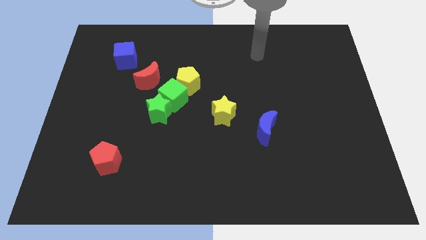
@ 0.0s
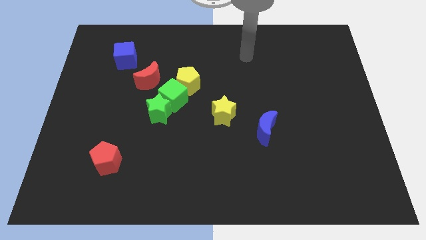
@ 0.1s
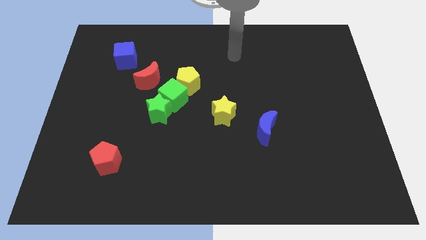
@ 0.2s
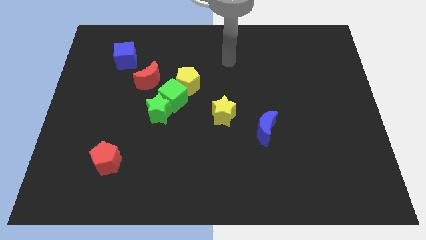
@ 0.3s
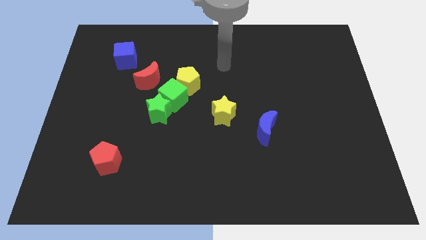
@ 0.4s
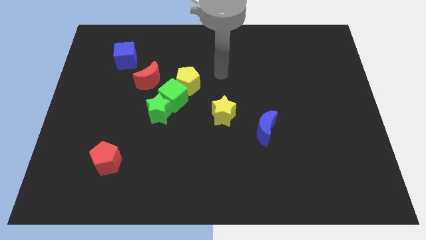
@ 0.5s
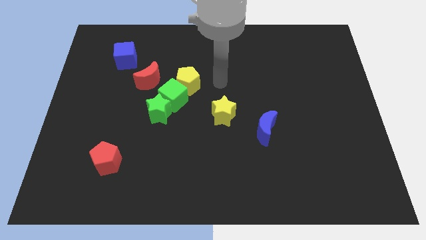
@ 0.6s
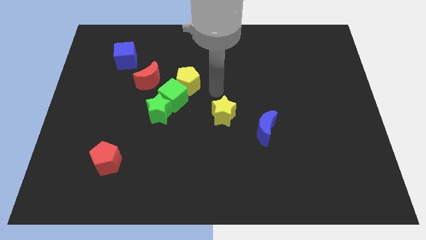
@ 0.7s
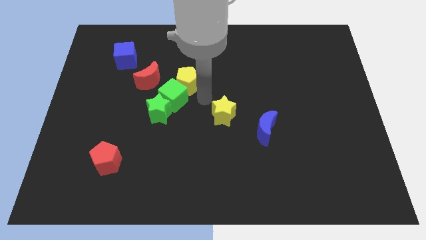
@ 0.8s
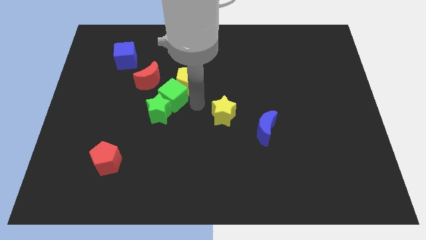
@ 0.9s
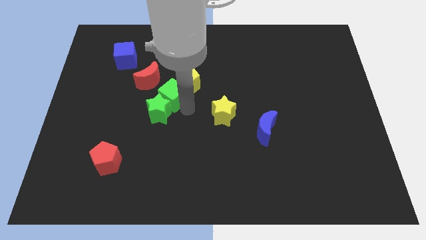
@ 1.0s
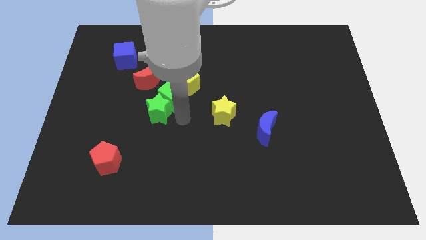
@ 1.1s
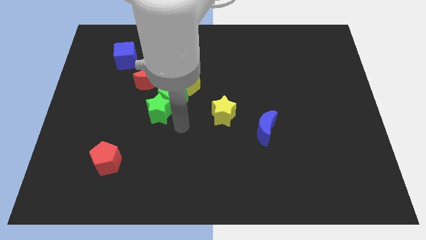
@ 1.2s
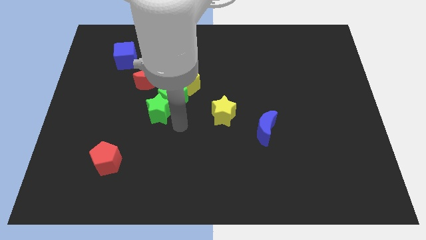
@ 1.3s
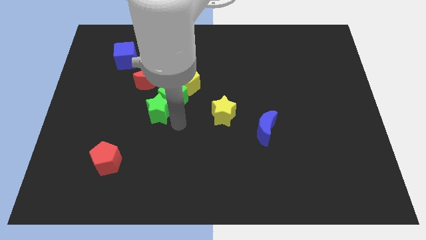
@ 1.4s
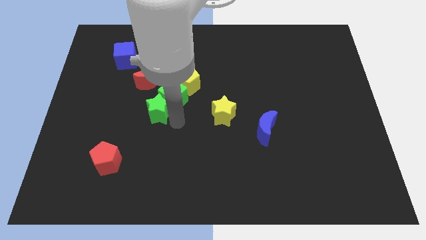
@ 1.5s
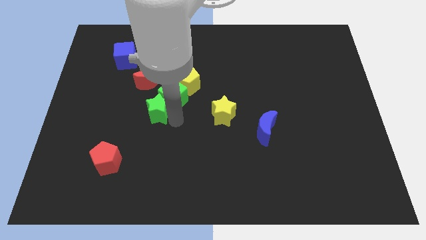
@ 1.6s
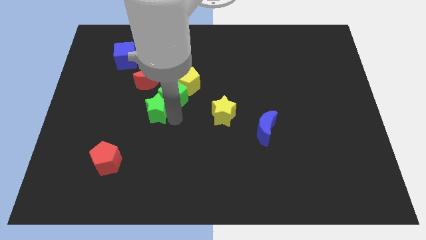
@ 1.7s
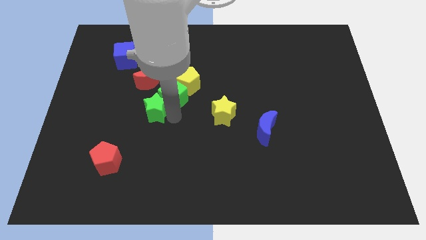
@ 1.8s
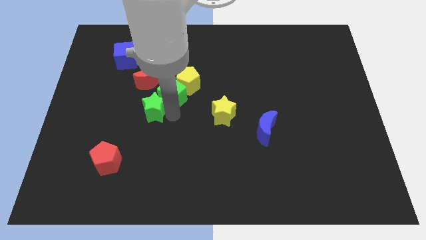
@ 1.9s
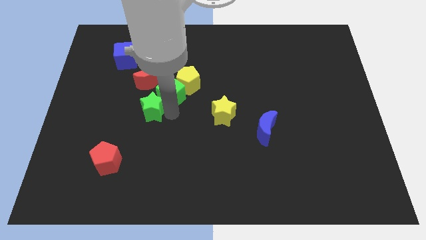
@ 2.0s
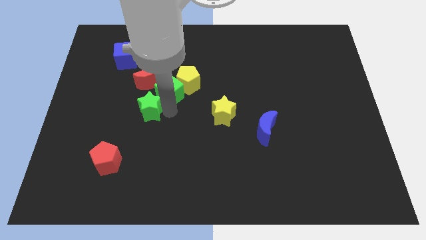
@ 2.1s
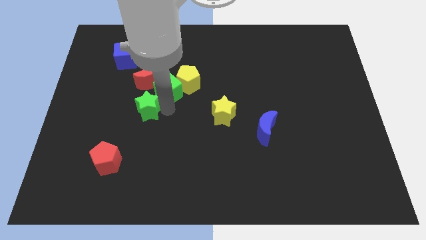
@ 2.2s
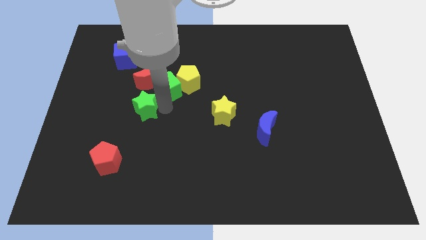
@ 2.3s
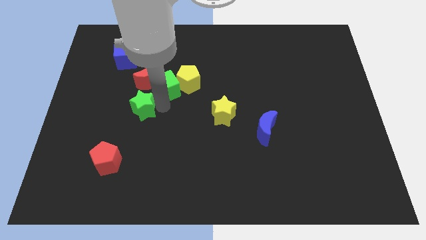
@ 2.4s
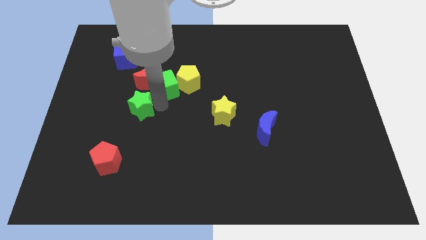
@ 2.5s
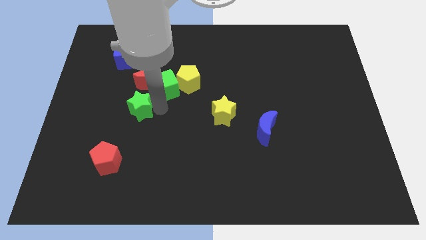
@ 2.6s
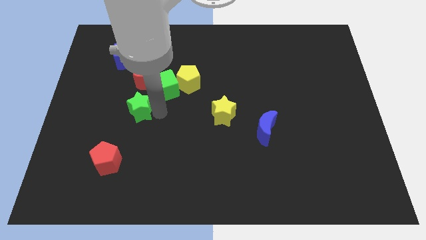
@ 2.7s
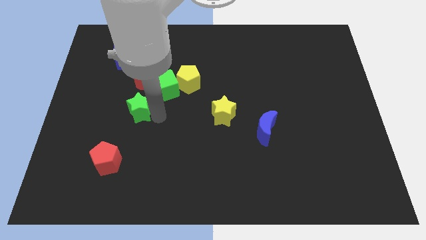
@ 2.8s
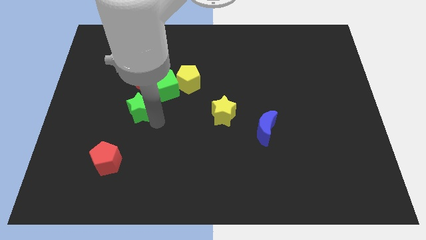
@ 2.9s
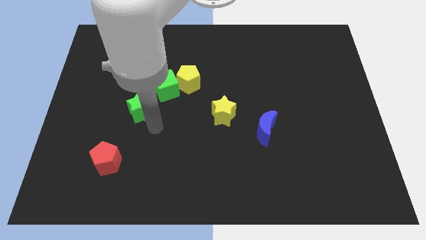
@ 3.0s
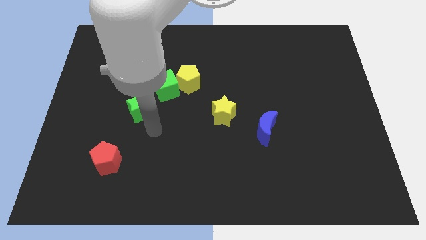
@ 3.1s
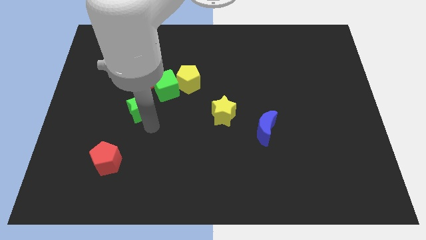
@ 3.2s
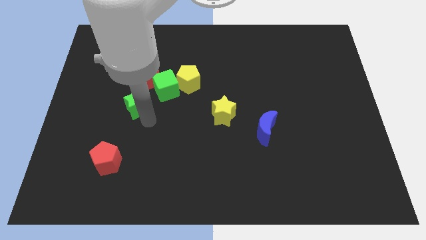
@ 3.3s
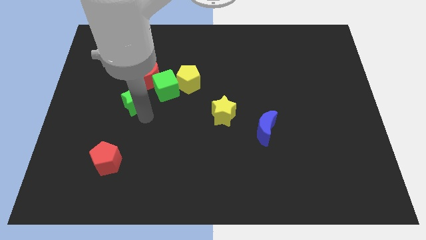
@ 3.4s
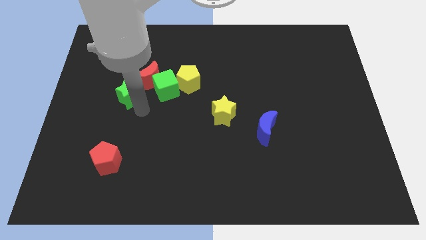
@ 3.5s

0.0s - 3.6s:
push the green star upwards and to the left diagonally a bit

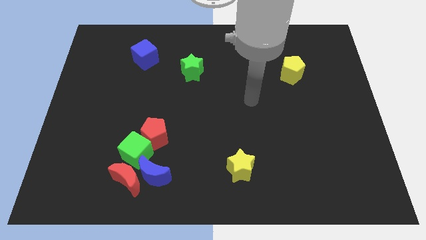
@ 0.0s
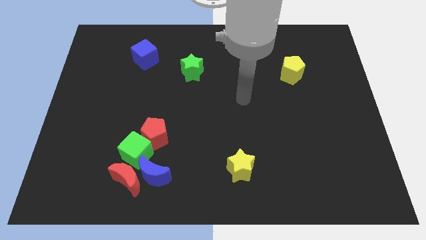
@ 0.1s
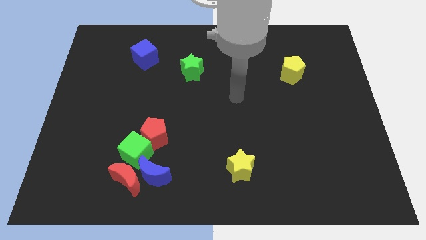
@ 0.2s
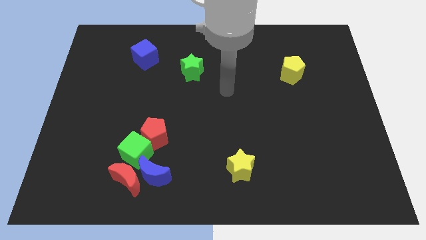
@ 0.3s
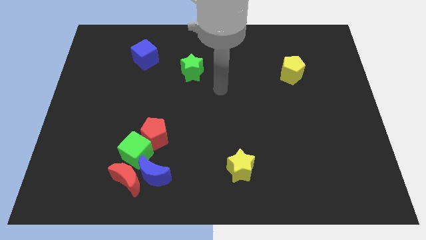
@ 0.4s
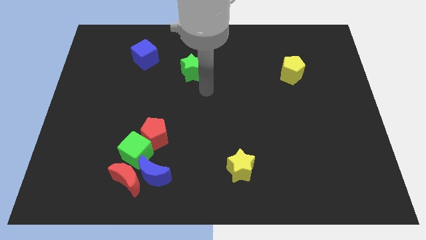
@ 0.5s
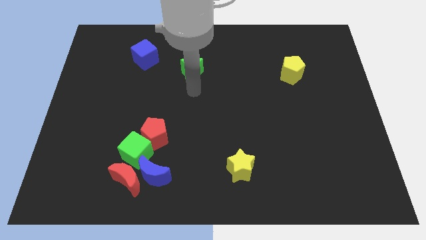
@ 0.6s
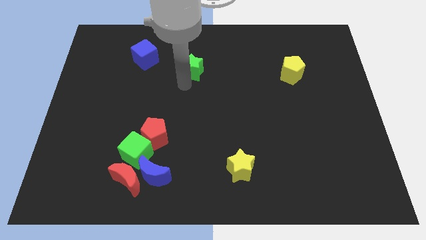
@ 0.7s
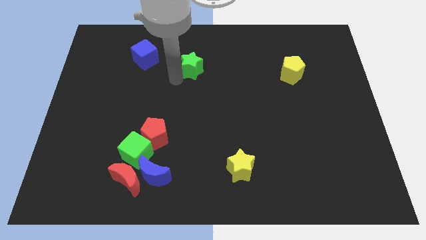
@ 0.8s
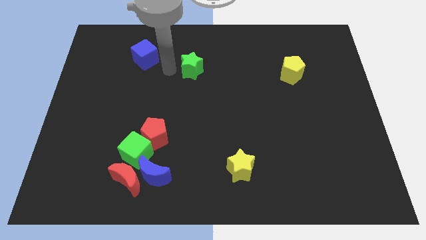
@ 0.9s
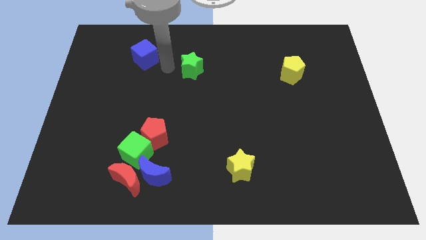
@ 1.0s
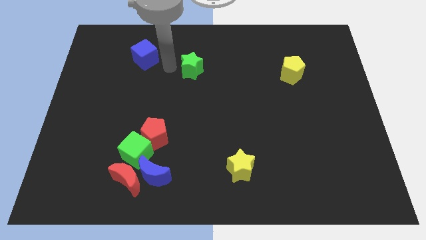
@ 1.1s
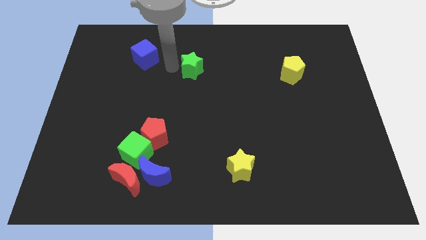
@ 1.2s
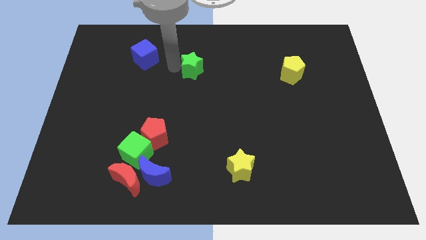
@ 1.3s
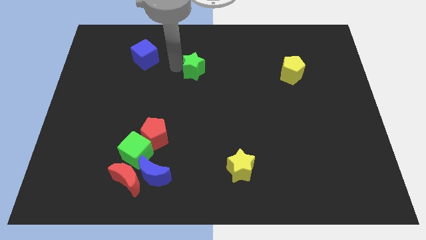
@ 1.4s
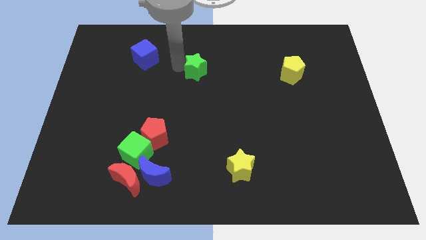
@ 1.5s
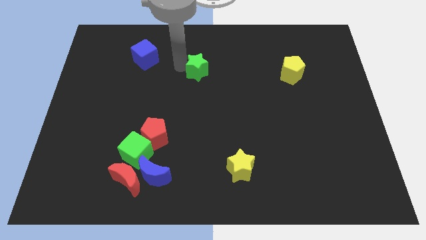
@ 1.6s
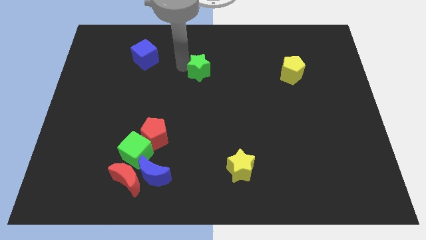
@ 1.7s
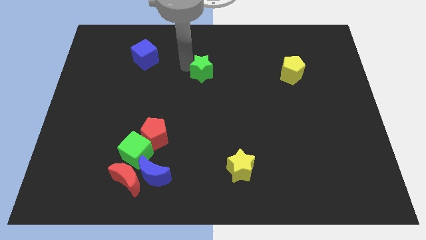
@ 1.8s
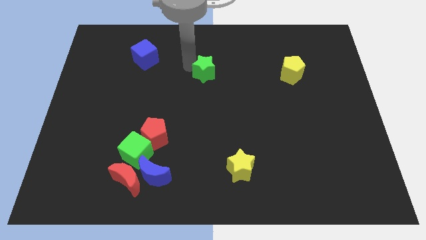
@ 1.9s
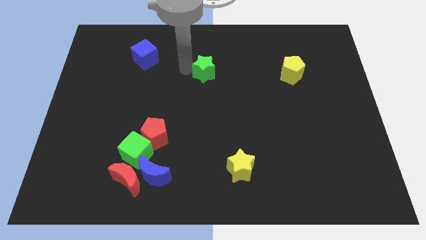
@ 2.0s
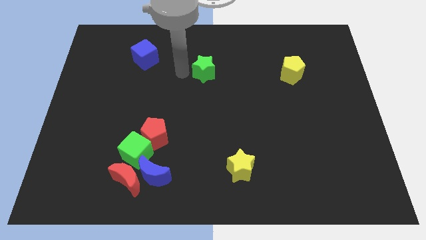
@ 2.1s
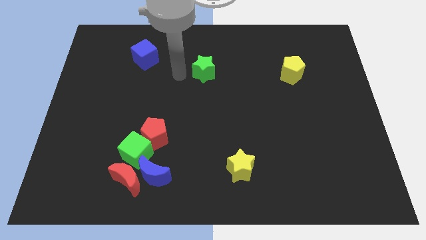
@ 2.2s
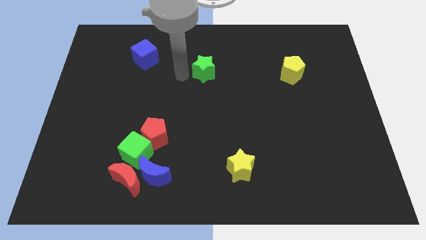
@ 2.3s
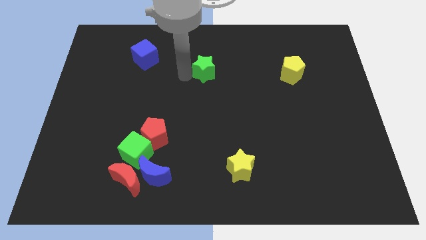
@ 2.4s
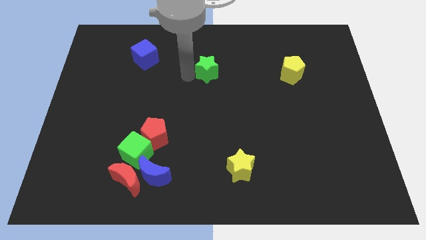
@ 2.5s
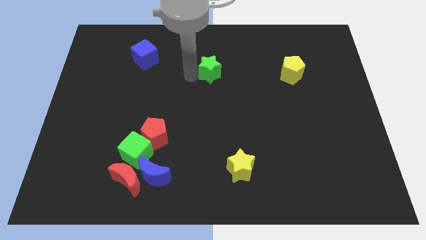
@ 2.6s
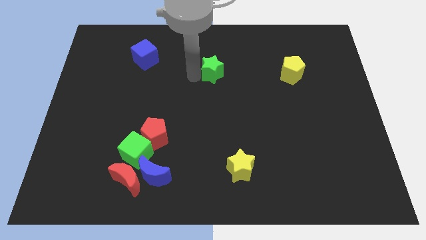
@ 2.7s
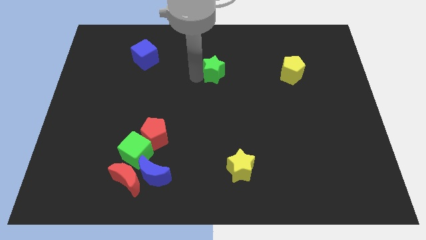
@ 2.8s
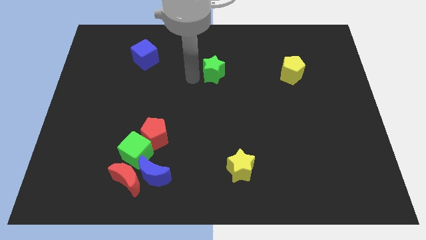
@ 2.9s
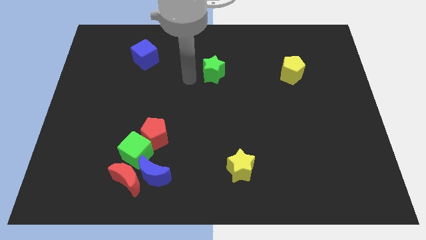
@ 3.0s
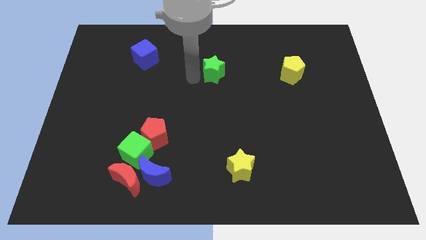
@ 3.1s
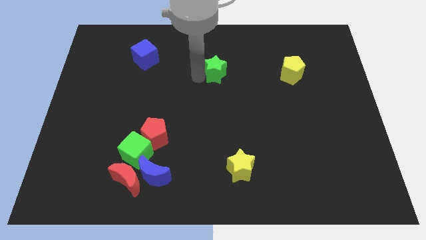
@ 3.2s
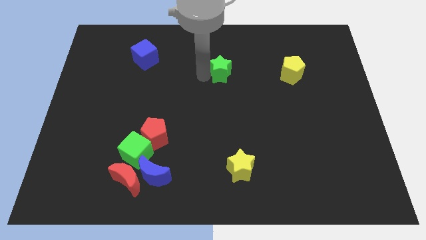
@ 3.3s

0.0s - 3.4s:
slightly push the green star right

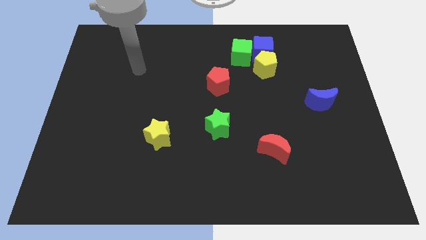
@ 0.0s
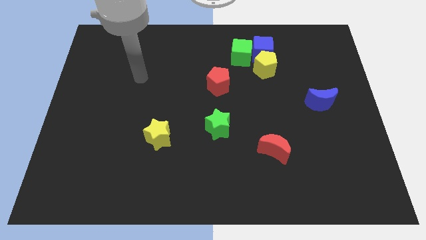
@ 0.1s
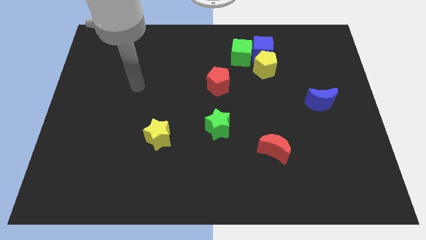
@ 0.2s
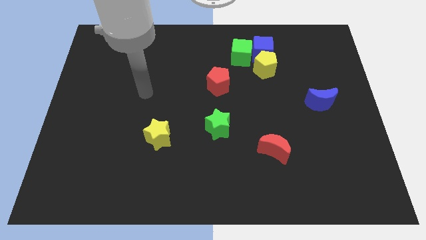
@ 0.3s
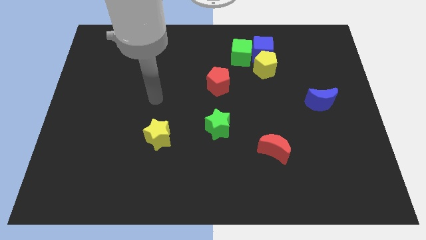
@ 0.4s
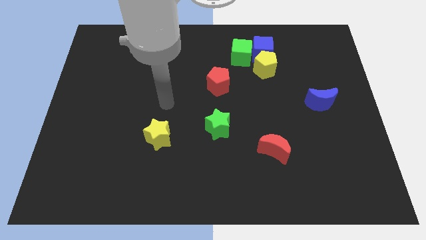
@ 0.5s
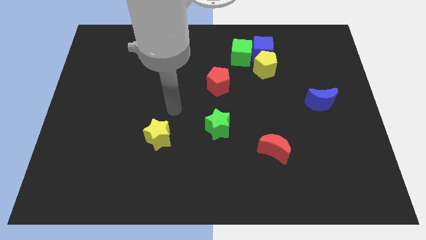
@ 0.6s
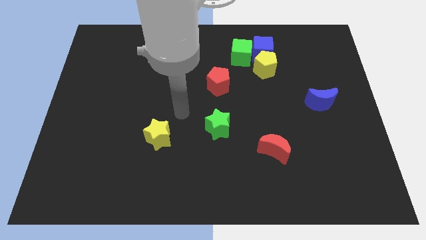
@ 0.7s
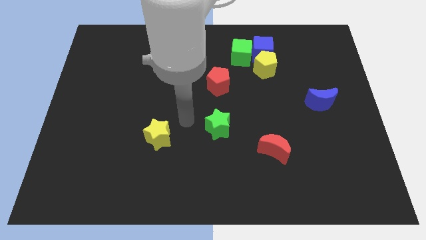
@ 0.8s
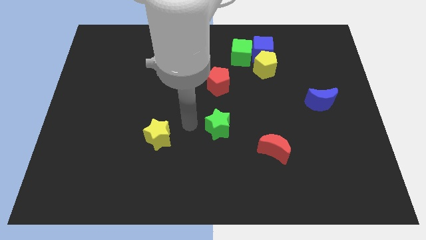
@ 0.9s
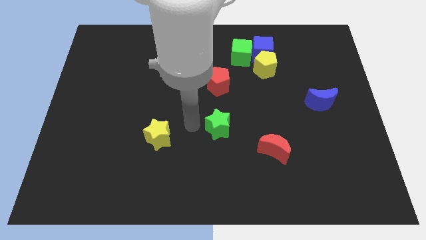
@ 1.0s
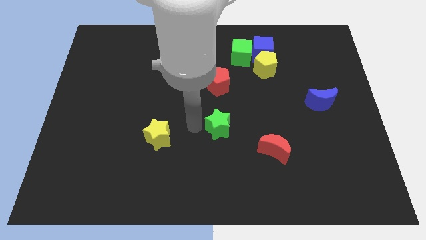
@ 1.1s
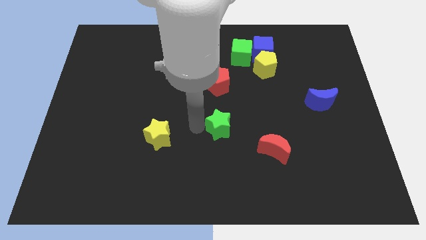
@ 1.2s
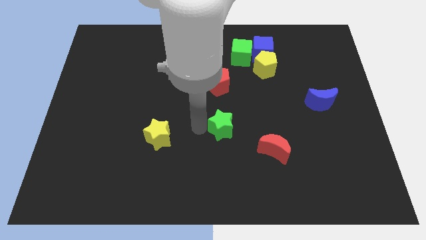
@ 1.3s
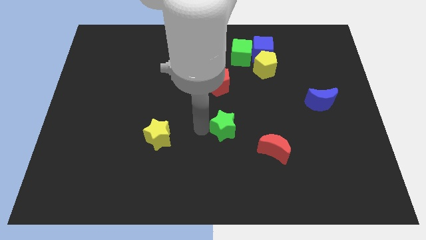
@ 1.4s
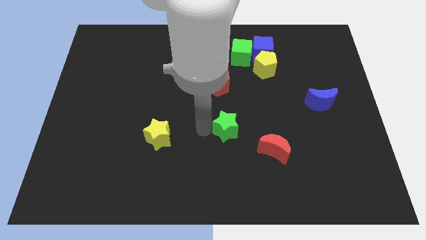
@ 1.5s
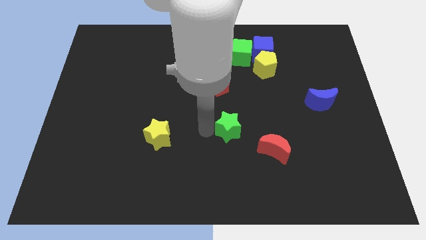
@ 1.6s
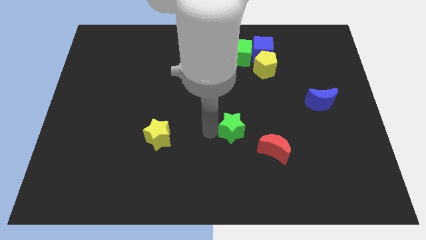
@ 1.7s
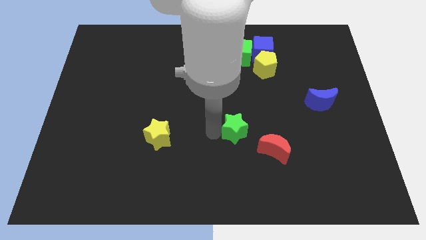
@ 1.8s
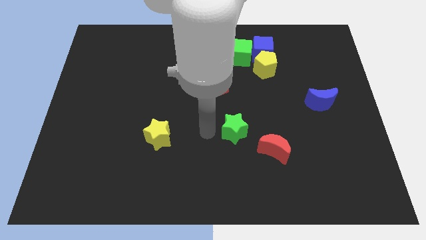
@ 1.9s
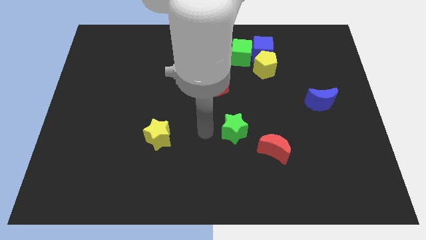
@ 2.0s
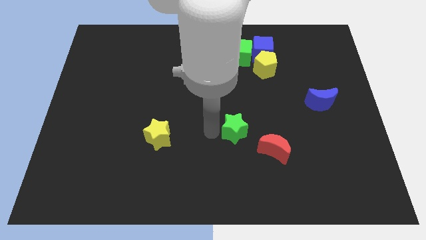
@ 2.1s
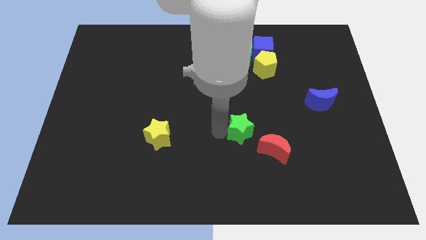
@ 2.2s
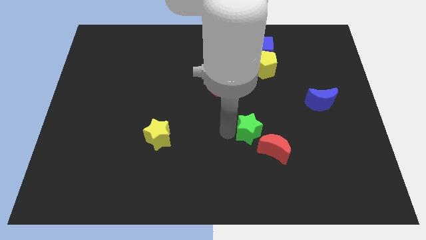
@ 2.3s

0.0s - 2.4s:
move the green star a little right
